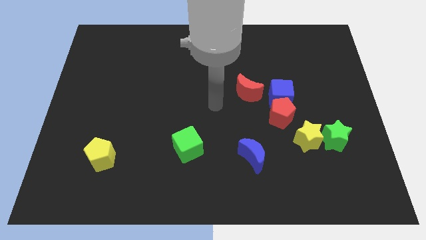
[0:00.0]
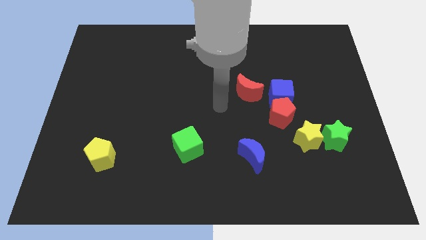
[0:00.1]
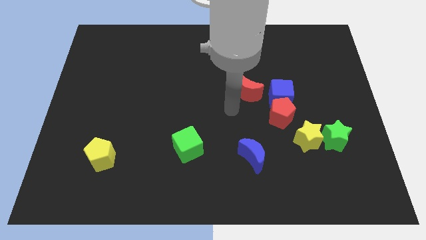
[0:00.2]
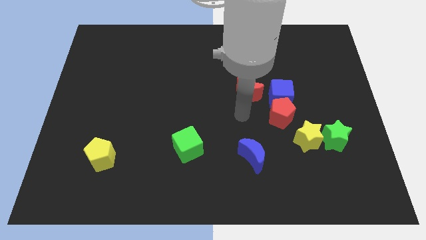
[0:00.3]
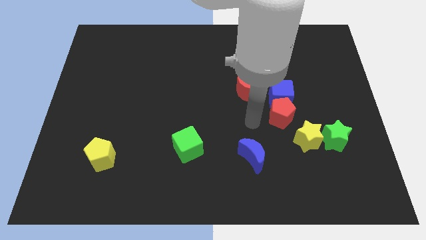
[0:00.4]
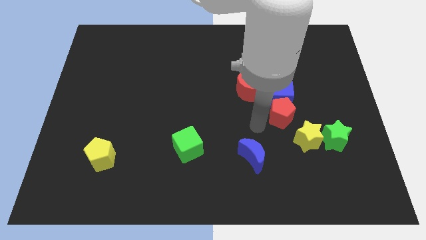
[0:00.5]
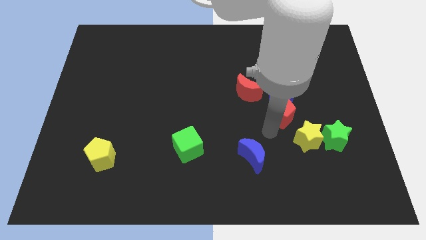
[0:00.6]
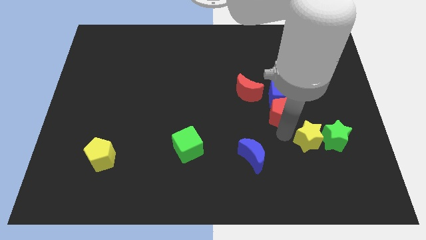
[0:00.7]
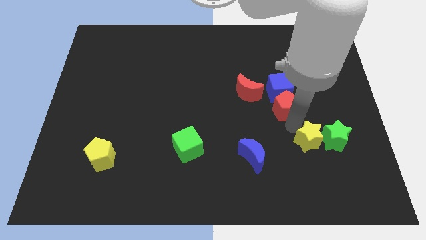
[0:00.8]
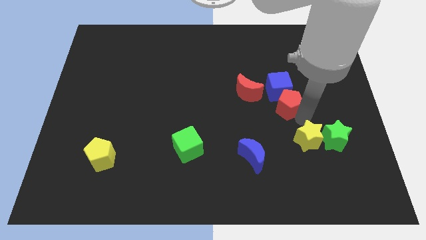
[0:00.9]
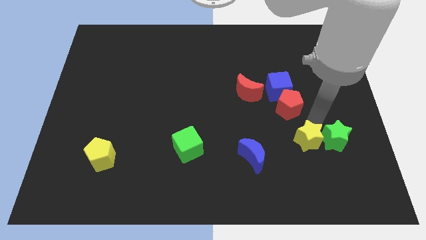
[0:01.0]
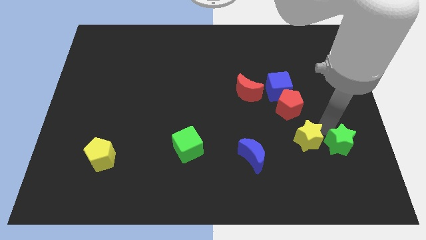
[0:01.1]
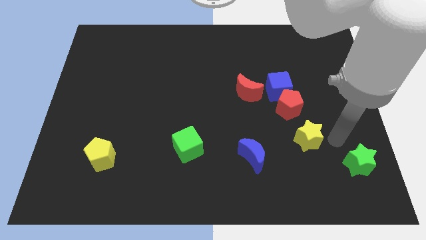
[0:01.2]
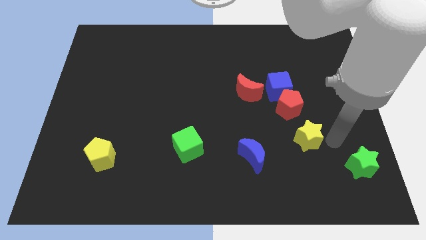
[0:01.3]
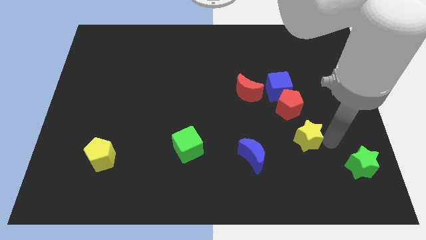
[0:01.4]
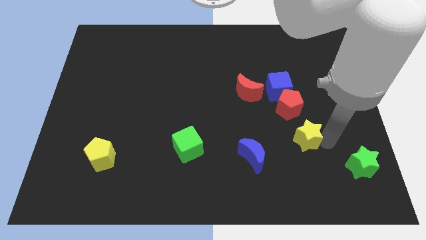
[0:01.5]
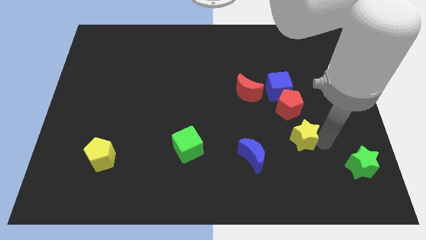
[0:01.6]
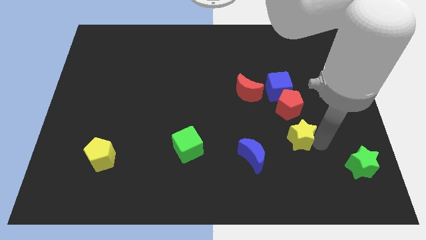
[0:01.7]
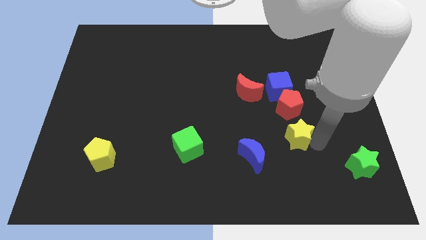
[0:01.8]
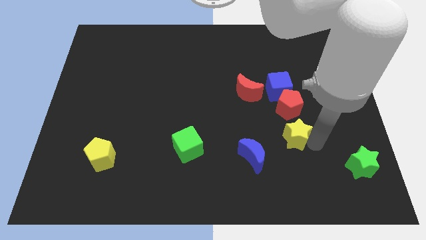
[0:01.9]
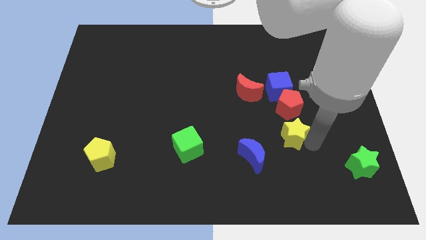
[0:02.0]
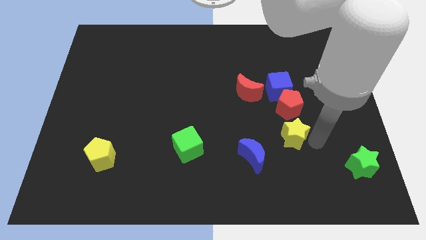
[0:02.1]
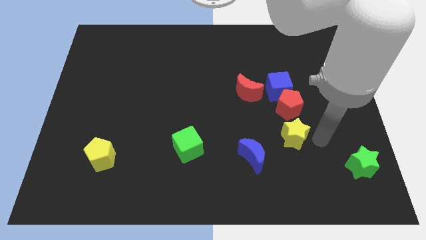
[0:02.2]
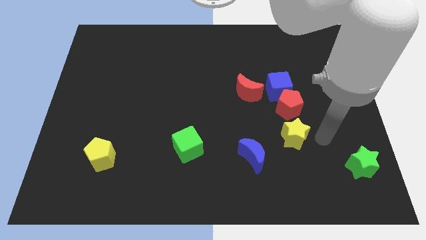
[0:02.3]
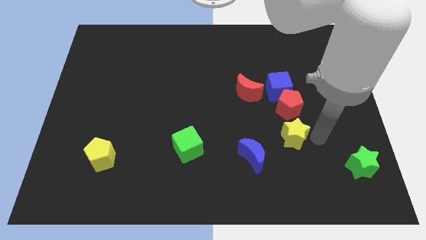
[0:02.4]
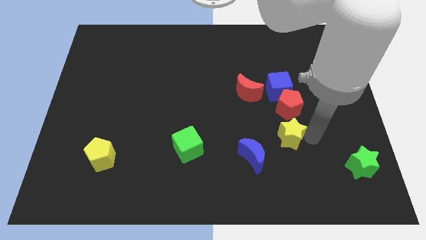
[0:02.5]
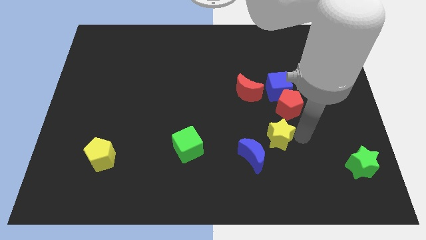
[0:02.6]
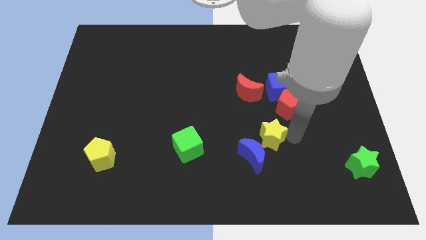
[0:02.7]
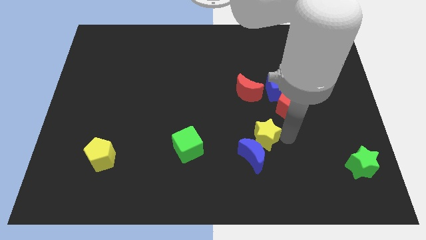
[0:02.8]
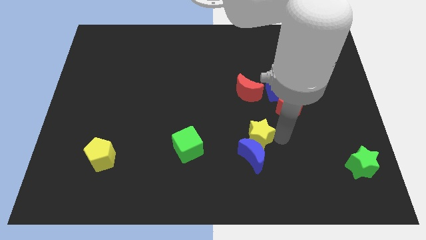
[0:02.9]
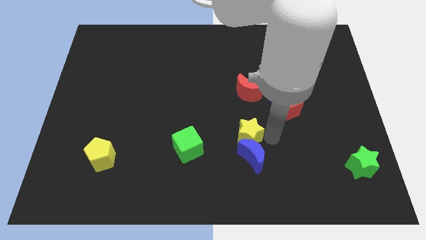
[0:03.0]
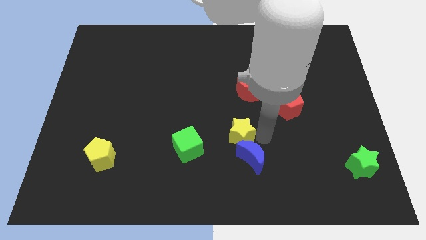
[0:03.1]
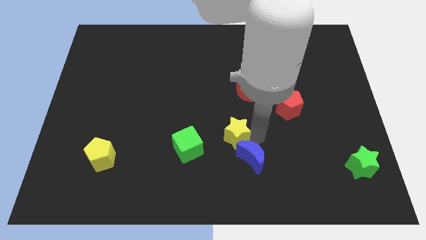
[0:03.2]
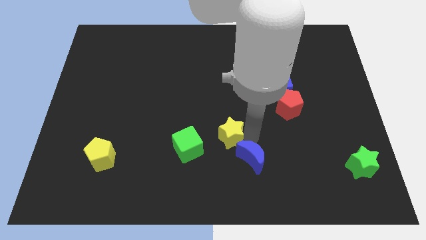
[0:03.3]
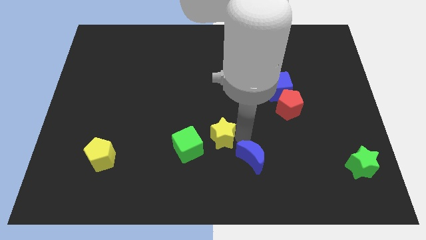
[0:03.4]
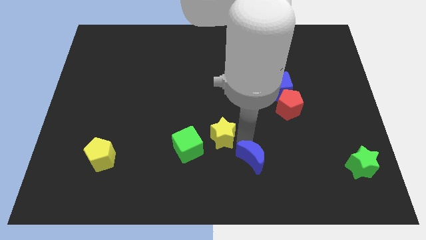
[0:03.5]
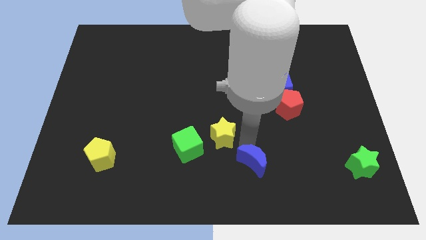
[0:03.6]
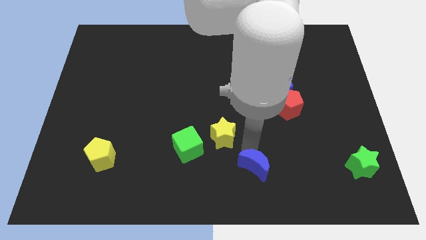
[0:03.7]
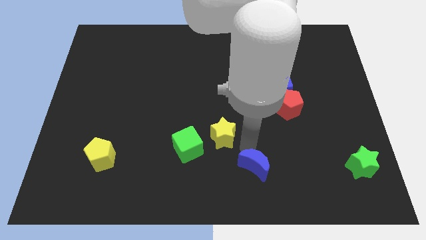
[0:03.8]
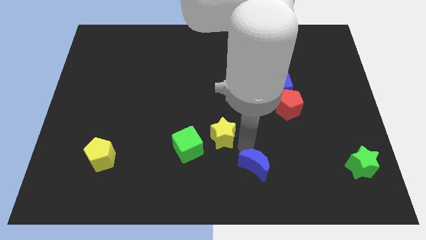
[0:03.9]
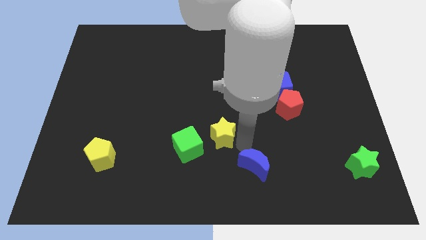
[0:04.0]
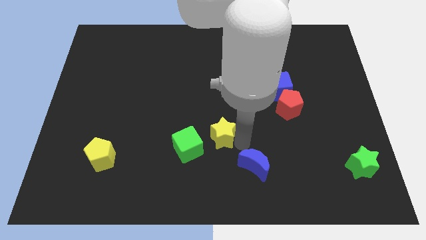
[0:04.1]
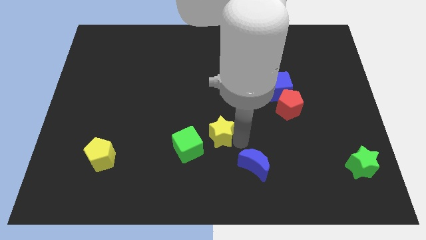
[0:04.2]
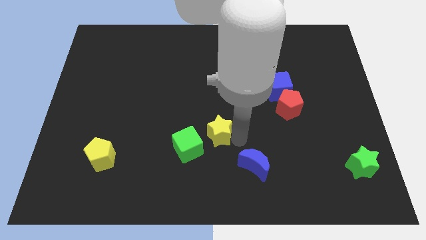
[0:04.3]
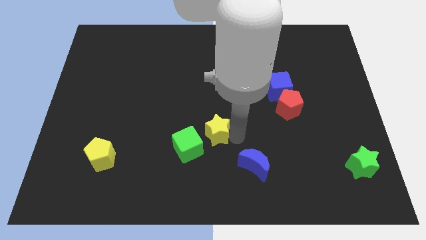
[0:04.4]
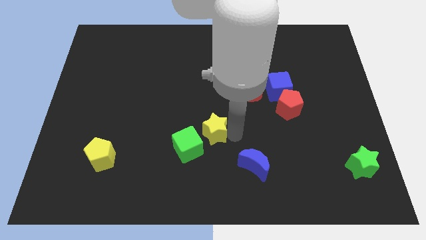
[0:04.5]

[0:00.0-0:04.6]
slide the yellow star left

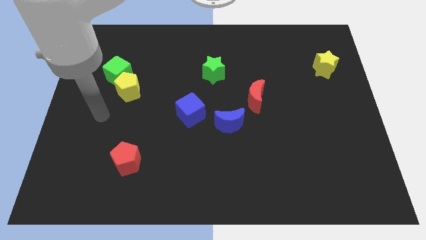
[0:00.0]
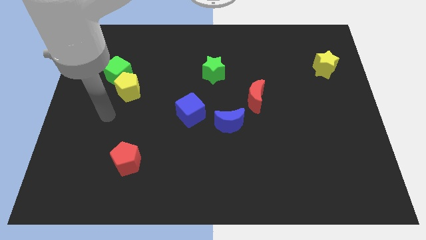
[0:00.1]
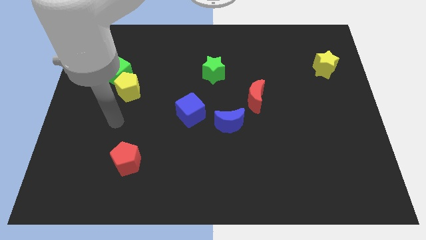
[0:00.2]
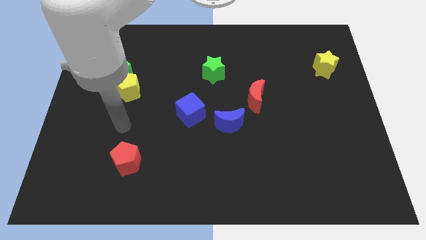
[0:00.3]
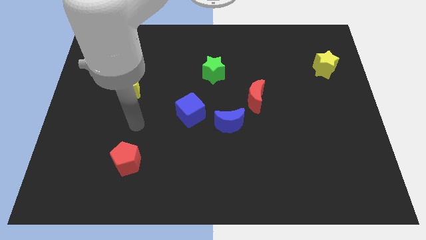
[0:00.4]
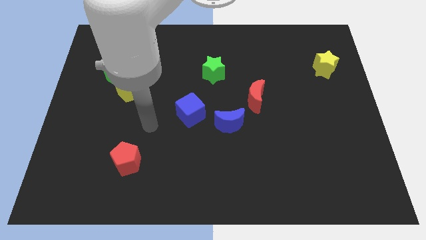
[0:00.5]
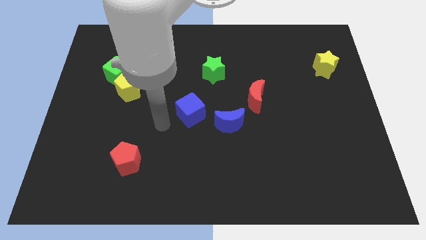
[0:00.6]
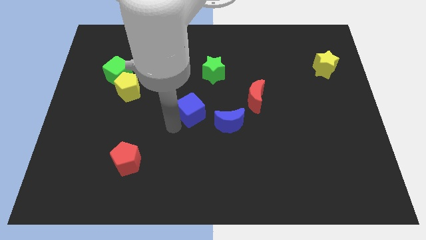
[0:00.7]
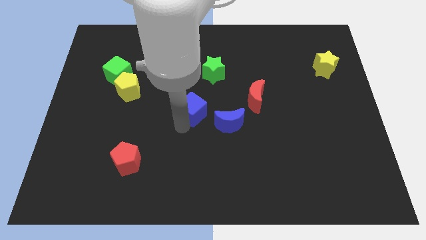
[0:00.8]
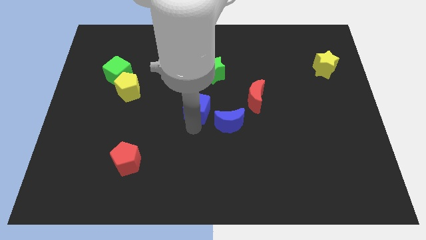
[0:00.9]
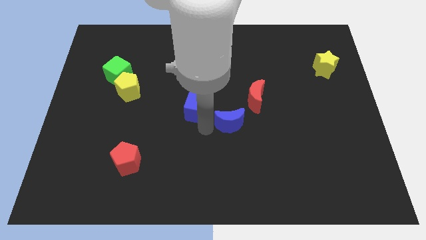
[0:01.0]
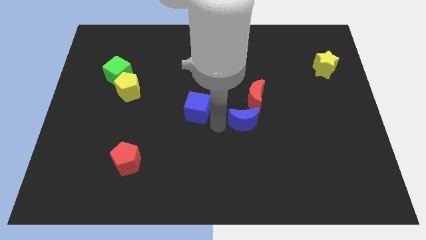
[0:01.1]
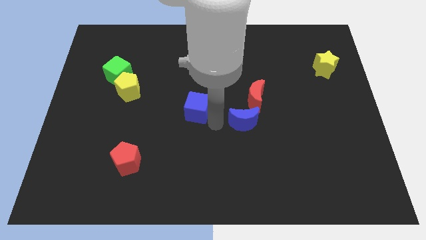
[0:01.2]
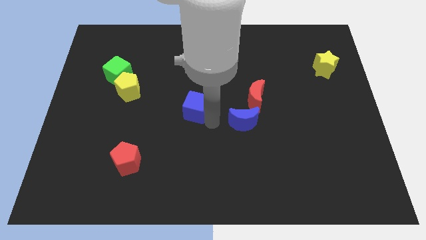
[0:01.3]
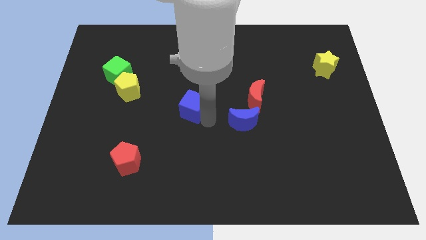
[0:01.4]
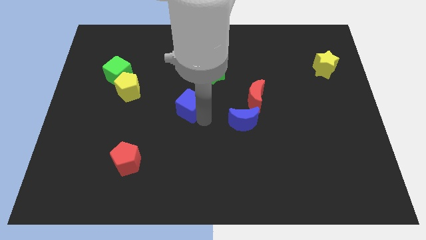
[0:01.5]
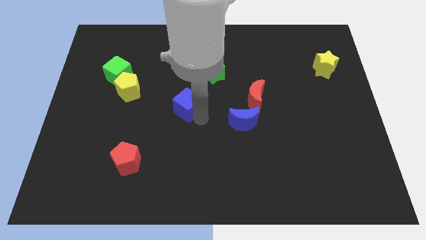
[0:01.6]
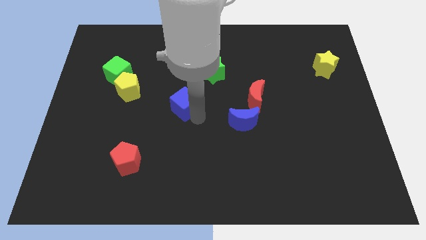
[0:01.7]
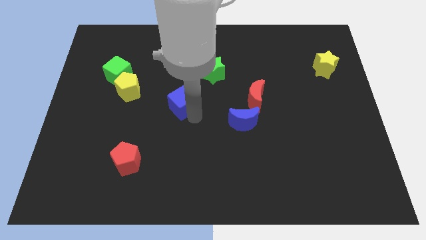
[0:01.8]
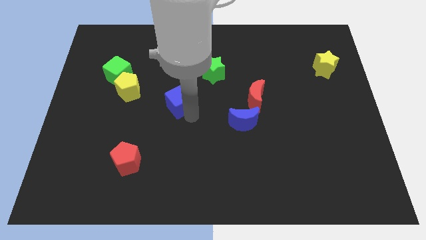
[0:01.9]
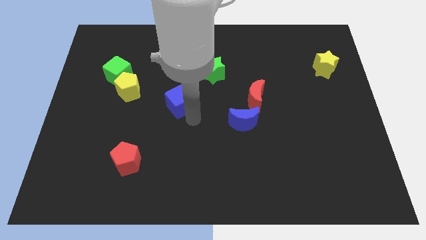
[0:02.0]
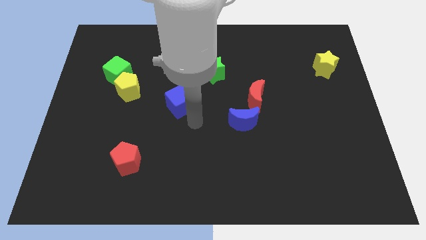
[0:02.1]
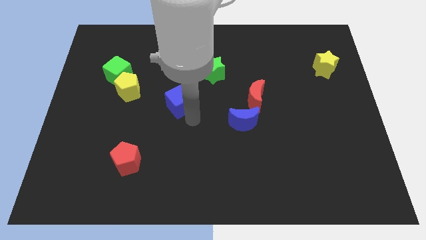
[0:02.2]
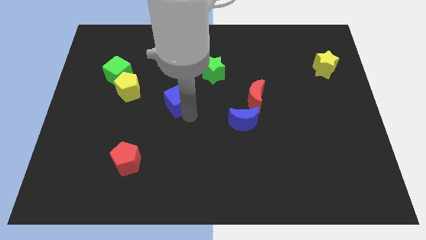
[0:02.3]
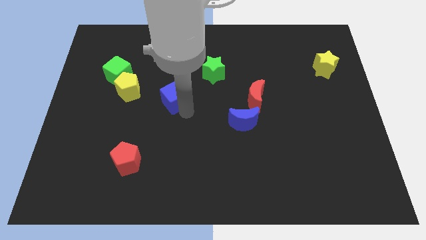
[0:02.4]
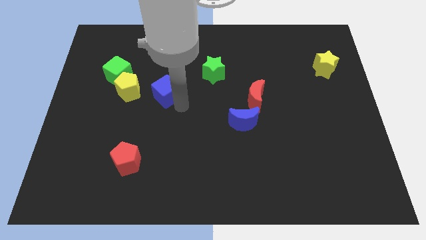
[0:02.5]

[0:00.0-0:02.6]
push the blue cube a little bit up and left diagonally

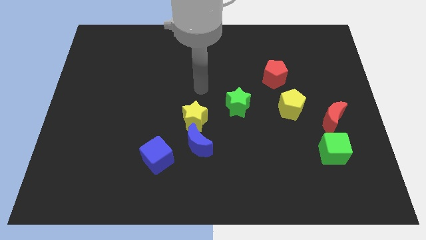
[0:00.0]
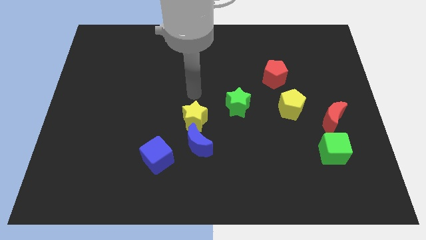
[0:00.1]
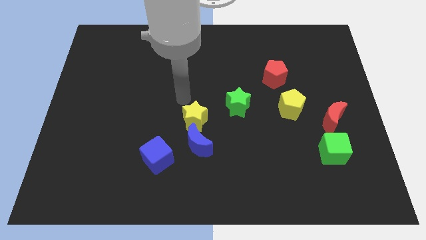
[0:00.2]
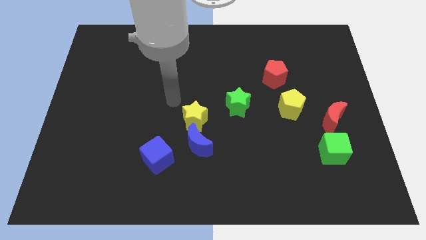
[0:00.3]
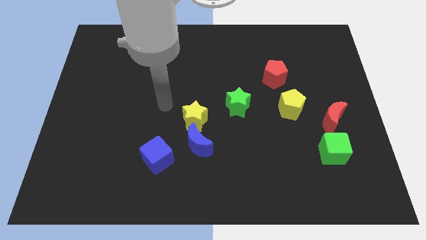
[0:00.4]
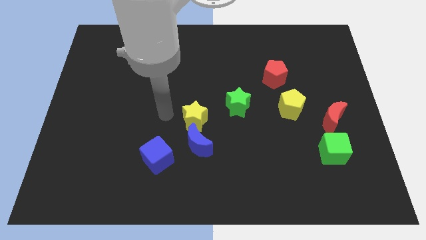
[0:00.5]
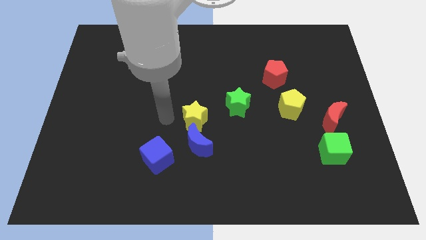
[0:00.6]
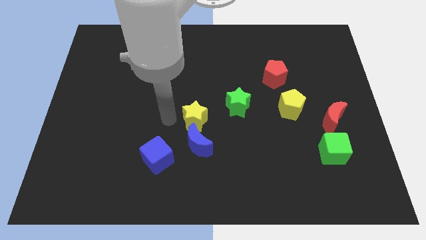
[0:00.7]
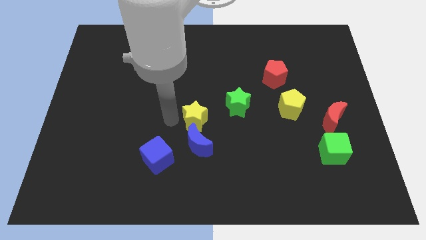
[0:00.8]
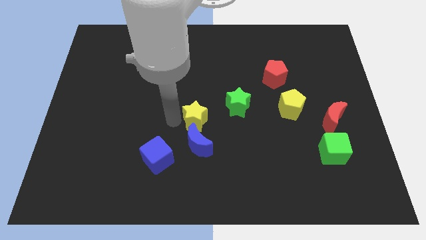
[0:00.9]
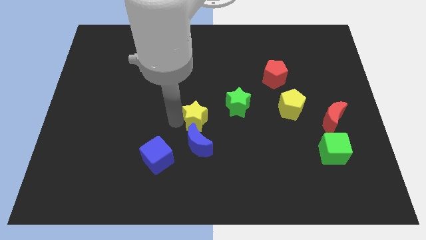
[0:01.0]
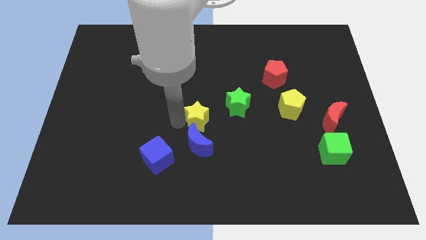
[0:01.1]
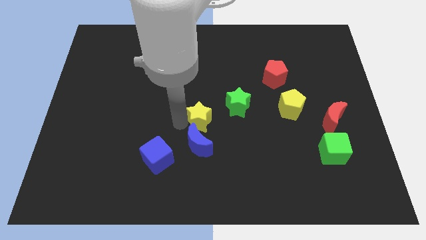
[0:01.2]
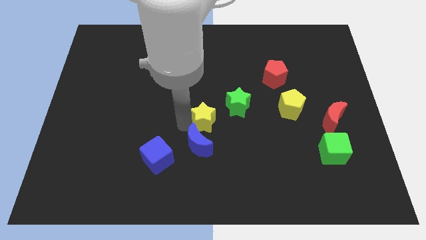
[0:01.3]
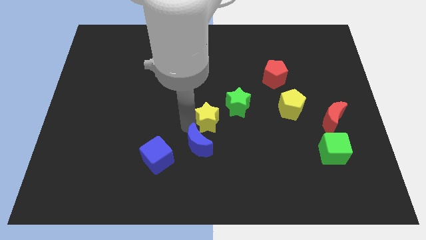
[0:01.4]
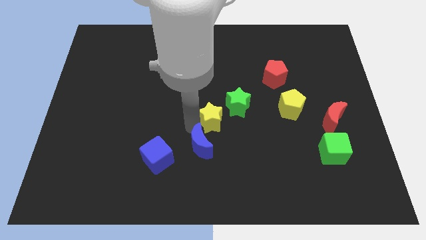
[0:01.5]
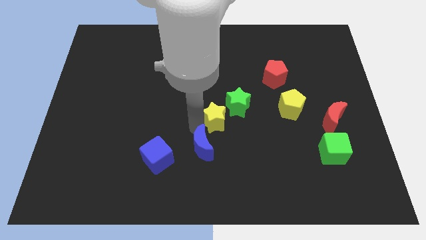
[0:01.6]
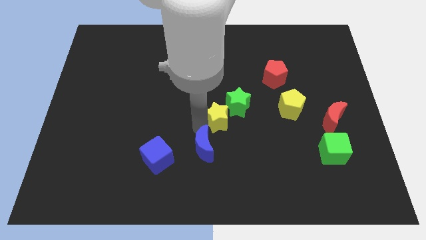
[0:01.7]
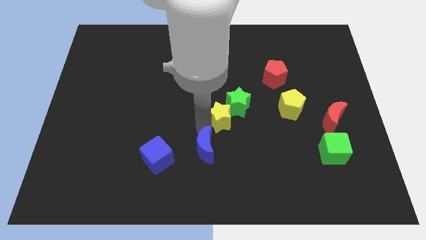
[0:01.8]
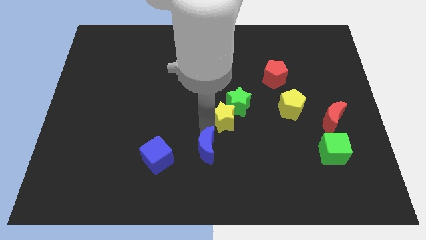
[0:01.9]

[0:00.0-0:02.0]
push the yellow star to the right slightly
